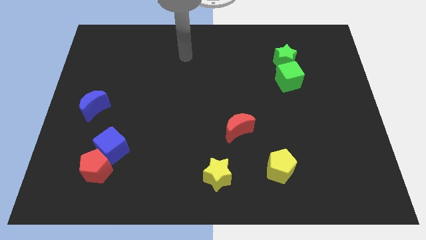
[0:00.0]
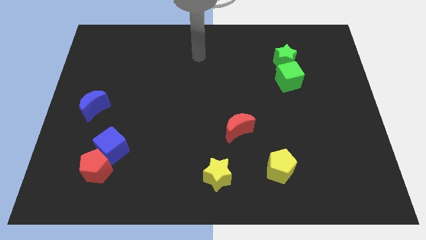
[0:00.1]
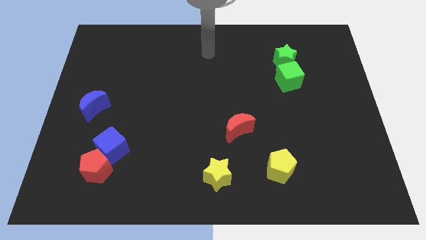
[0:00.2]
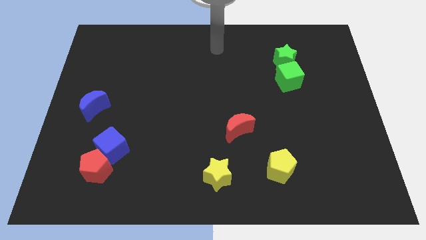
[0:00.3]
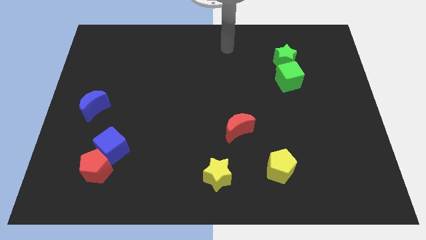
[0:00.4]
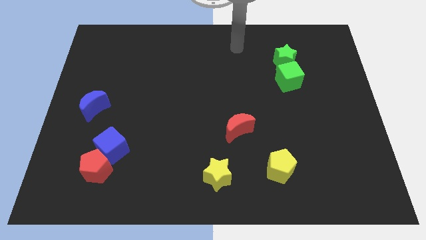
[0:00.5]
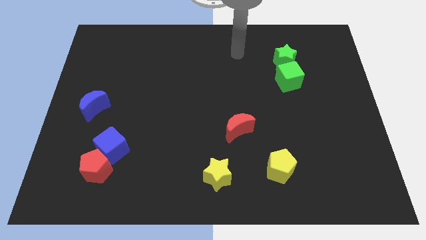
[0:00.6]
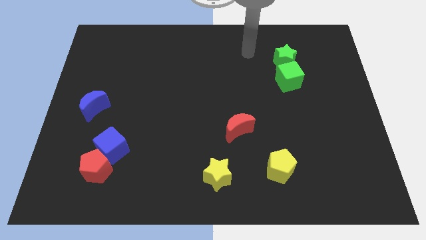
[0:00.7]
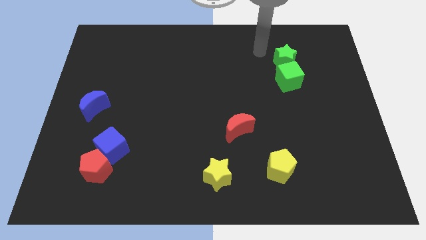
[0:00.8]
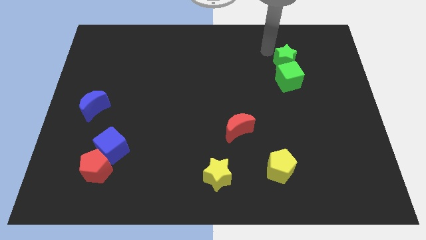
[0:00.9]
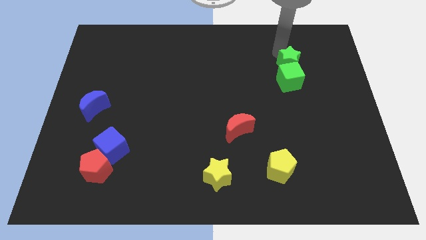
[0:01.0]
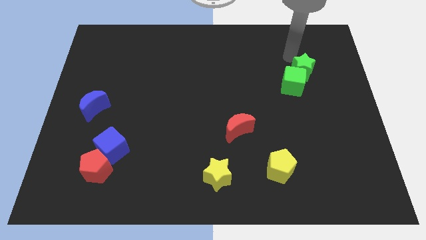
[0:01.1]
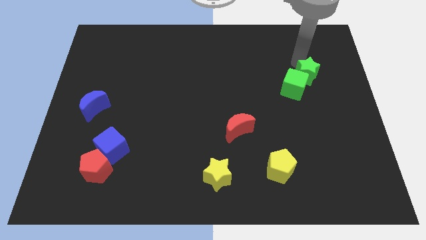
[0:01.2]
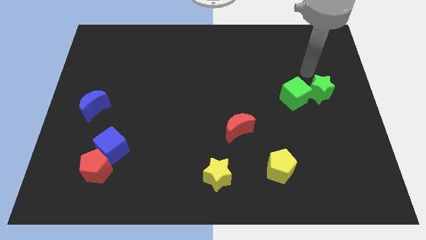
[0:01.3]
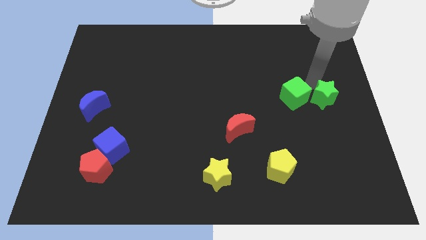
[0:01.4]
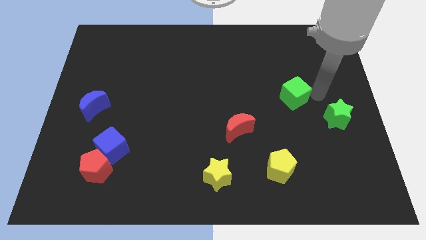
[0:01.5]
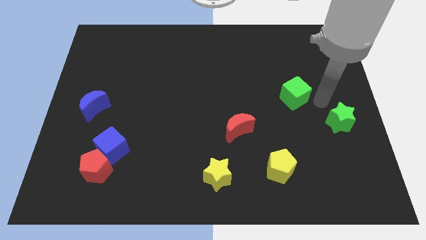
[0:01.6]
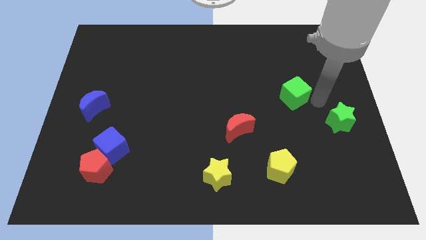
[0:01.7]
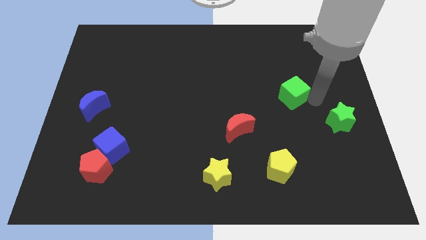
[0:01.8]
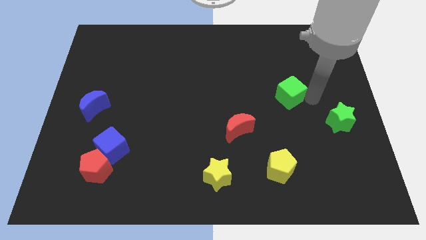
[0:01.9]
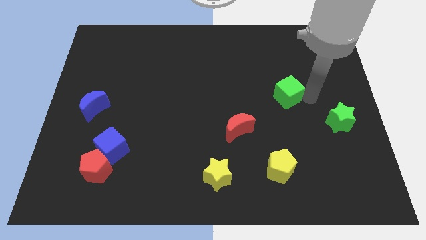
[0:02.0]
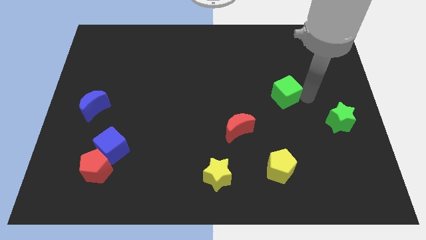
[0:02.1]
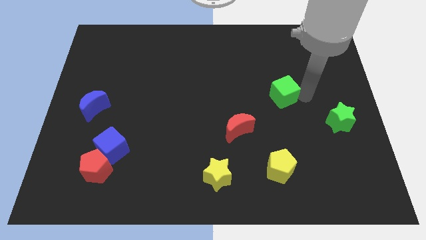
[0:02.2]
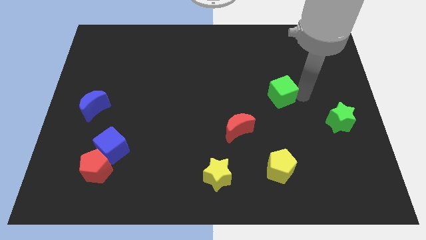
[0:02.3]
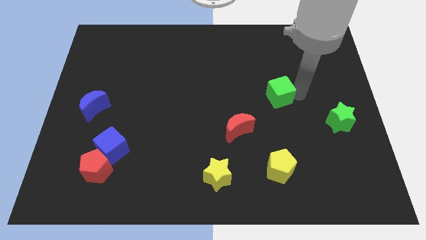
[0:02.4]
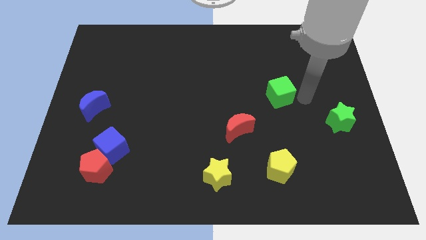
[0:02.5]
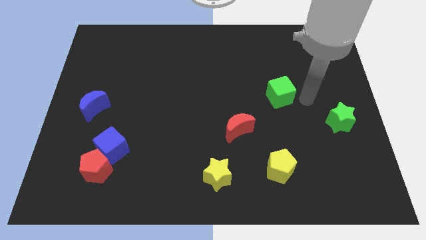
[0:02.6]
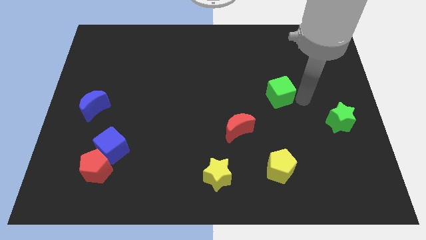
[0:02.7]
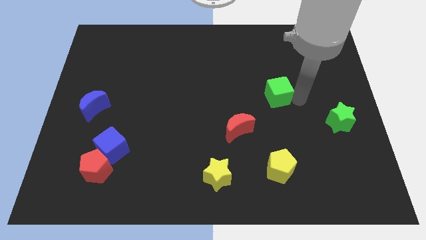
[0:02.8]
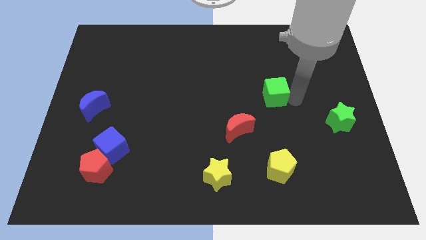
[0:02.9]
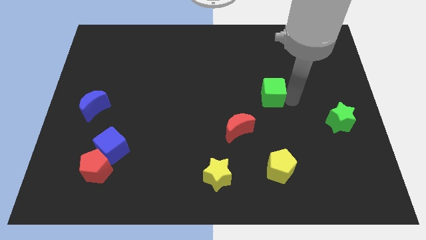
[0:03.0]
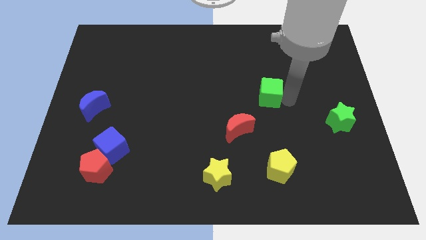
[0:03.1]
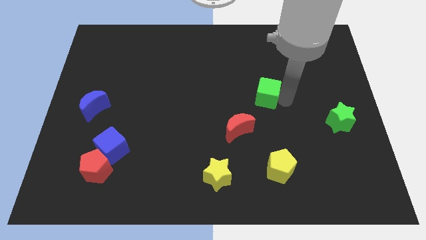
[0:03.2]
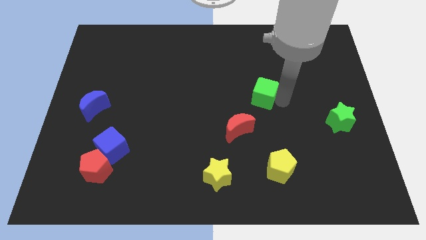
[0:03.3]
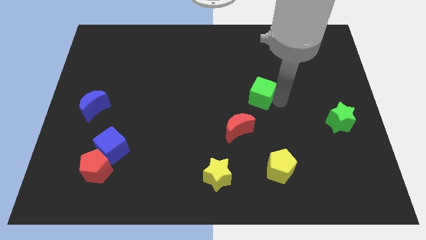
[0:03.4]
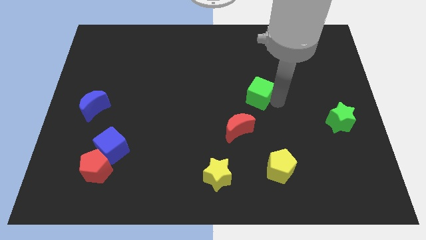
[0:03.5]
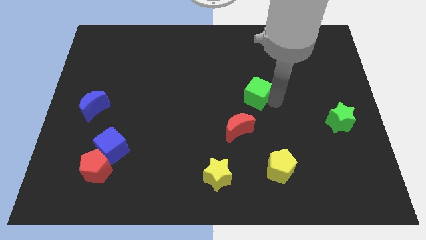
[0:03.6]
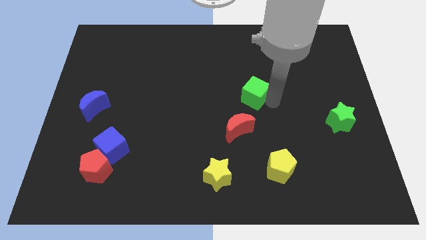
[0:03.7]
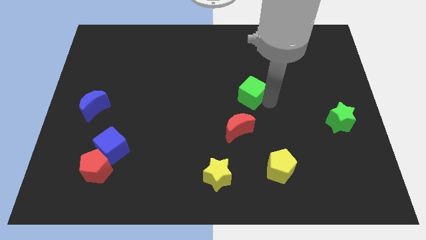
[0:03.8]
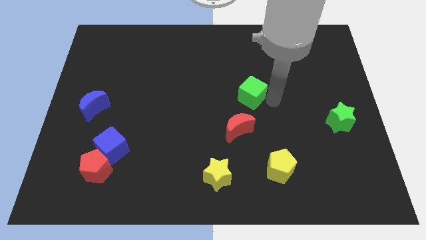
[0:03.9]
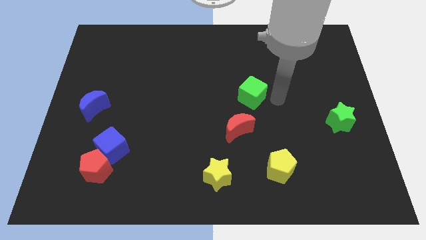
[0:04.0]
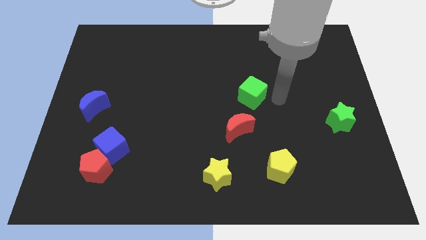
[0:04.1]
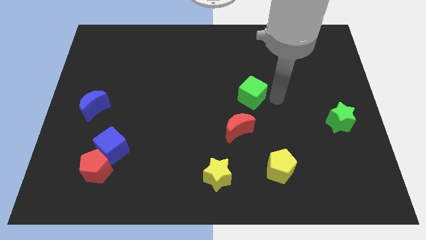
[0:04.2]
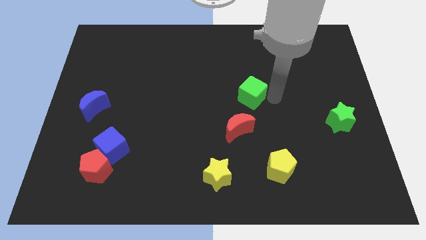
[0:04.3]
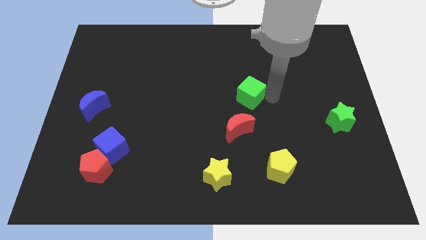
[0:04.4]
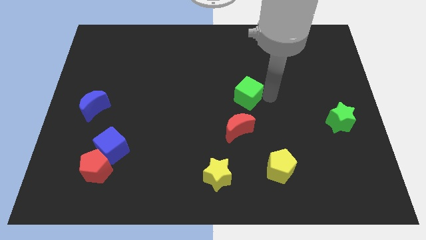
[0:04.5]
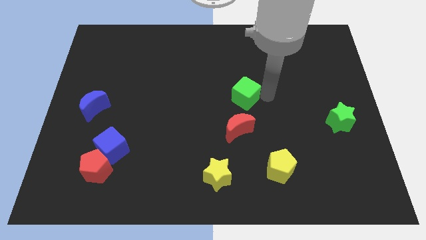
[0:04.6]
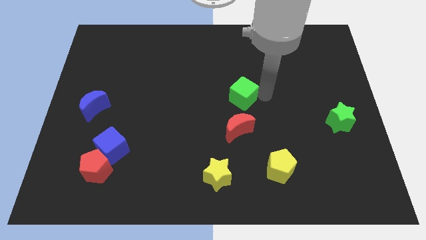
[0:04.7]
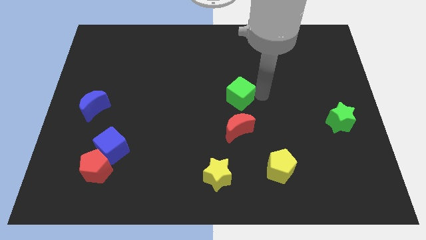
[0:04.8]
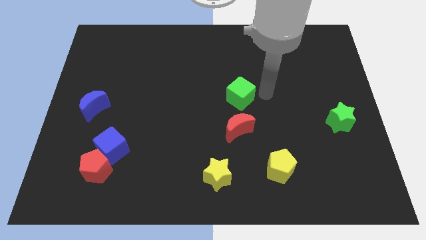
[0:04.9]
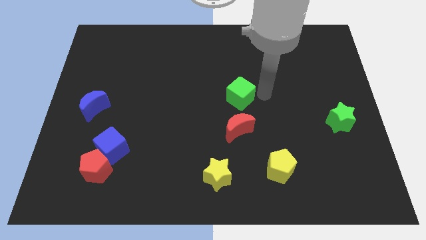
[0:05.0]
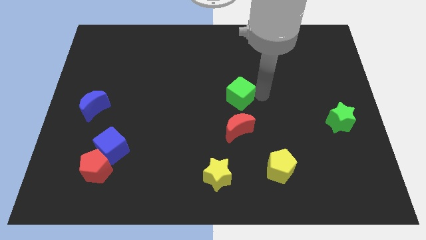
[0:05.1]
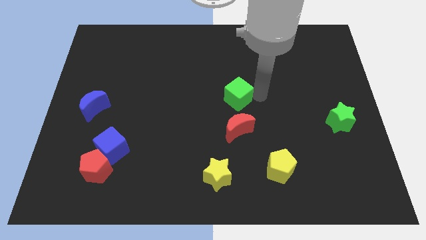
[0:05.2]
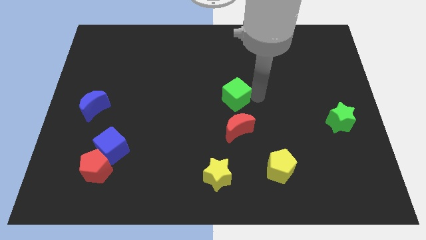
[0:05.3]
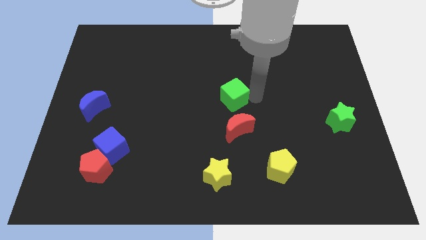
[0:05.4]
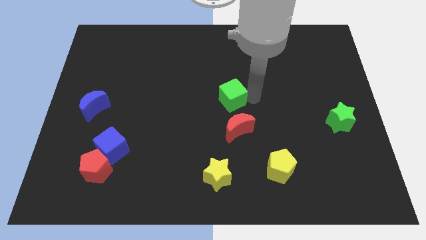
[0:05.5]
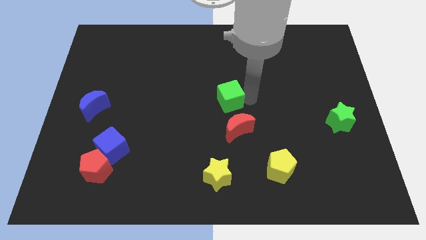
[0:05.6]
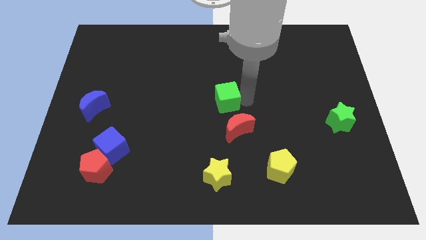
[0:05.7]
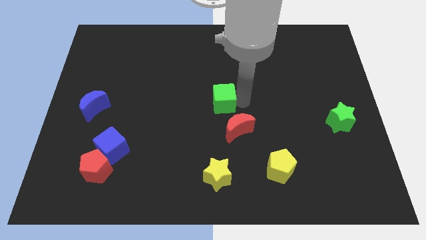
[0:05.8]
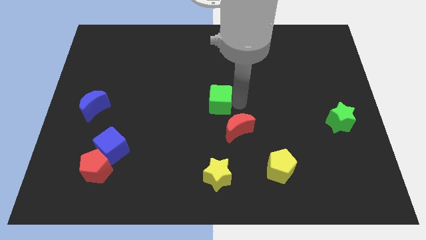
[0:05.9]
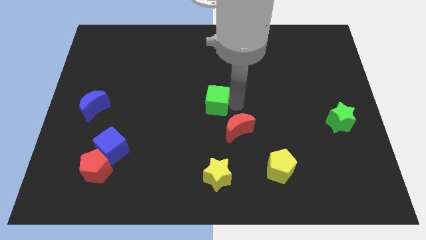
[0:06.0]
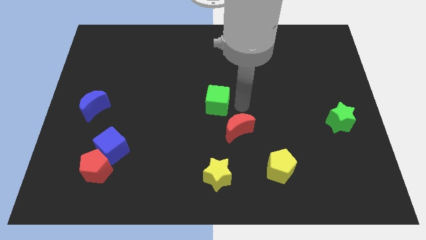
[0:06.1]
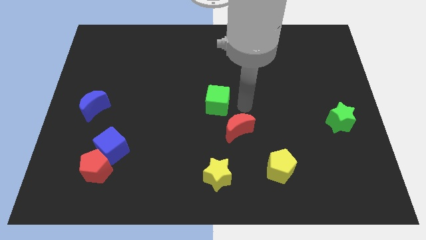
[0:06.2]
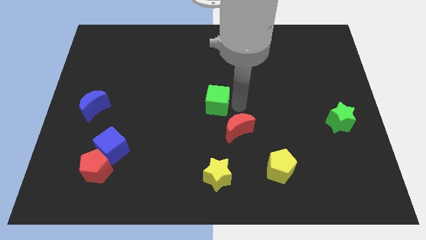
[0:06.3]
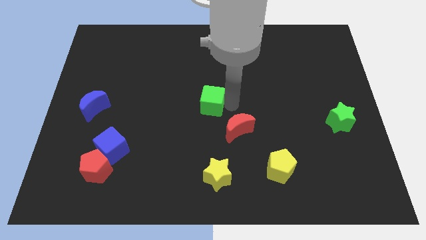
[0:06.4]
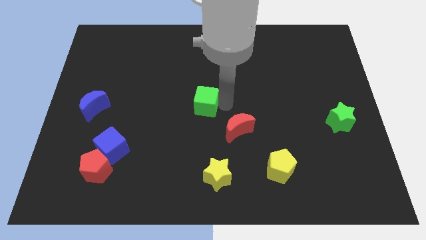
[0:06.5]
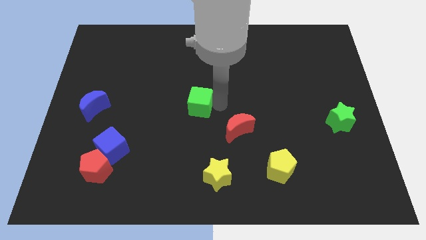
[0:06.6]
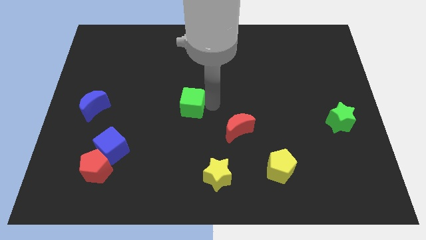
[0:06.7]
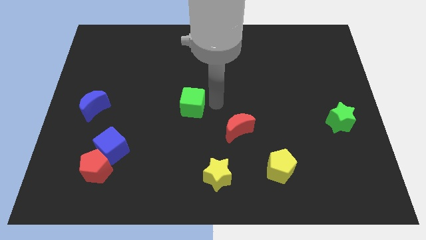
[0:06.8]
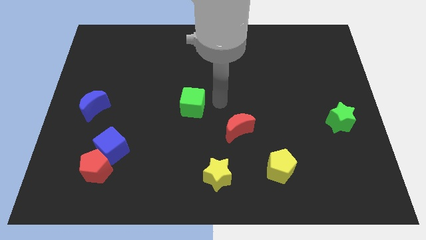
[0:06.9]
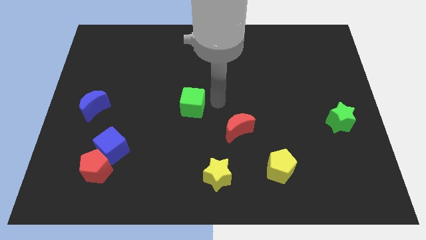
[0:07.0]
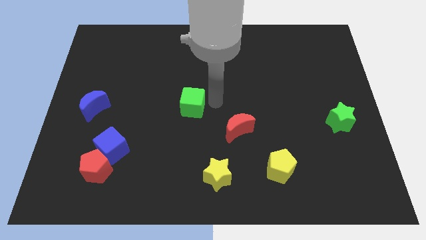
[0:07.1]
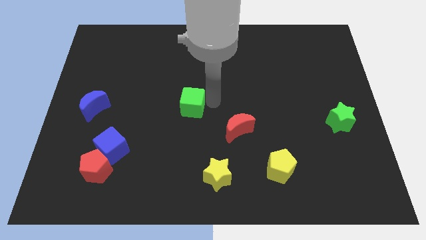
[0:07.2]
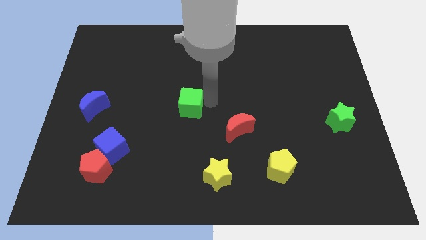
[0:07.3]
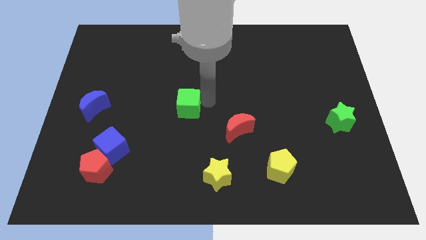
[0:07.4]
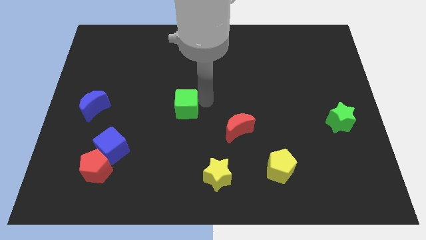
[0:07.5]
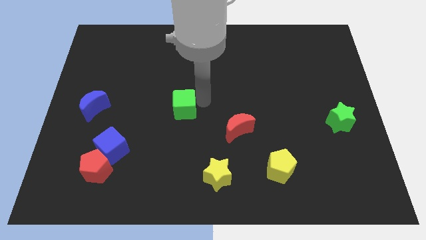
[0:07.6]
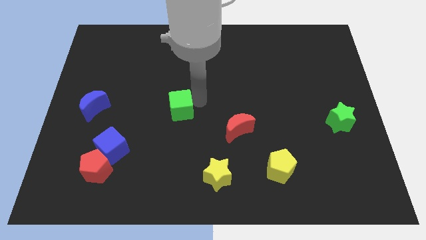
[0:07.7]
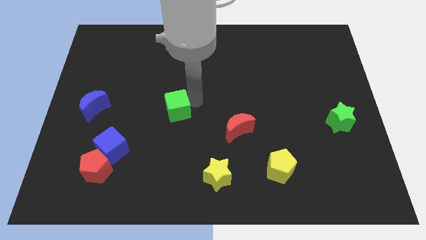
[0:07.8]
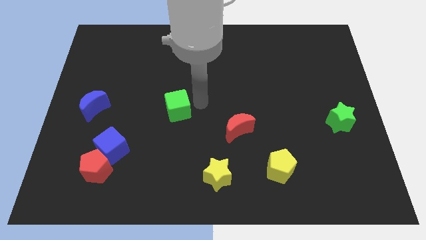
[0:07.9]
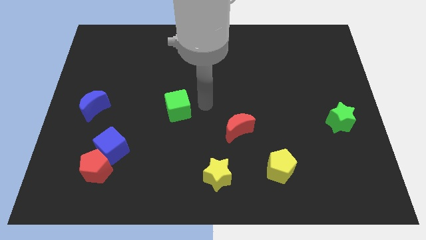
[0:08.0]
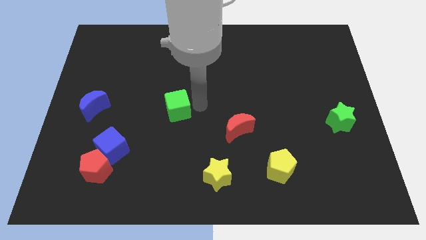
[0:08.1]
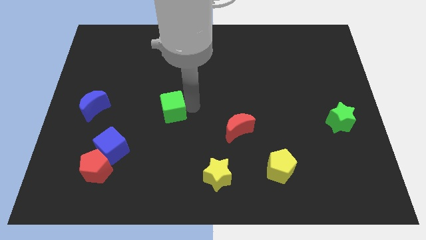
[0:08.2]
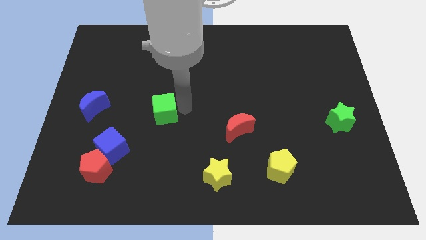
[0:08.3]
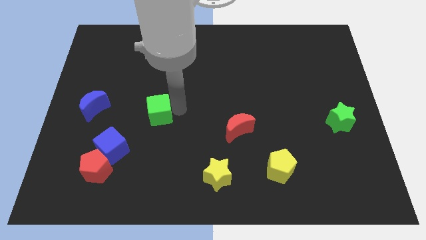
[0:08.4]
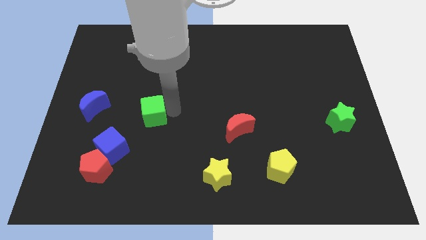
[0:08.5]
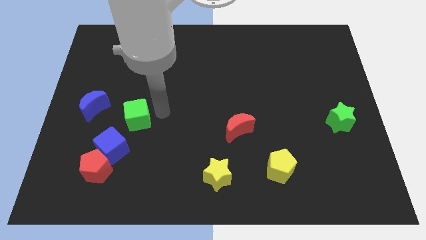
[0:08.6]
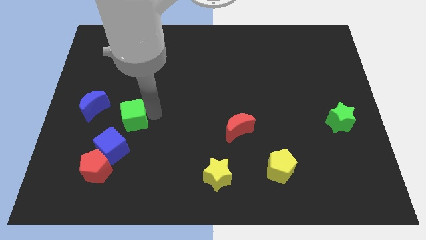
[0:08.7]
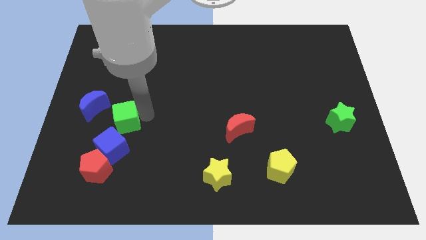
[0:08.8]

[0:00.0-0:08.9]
slide the green cube to the top side of the red pentagon
